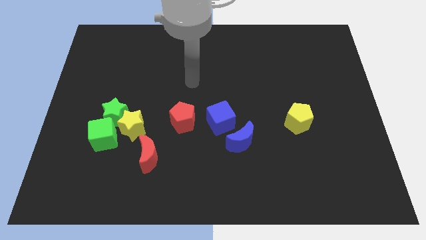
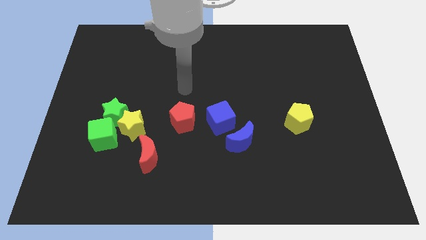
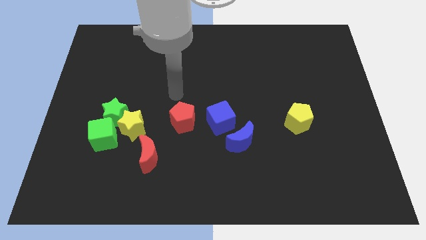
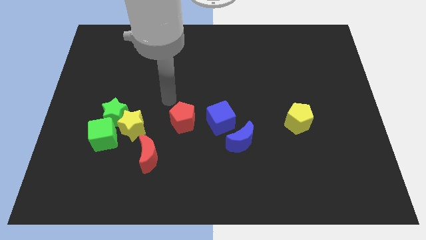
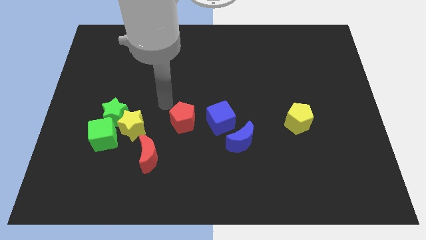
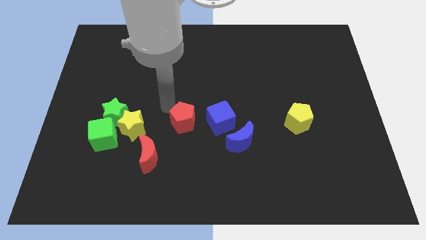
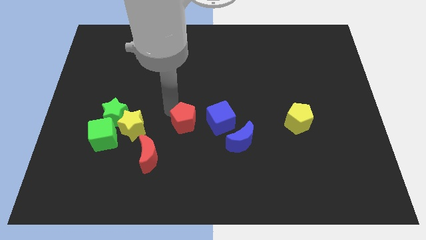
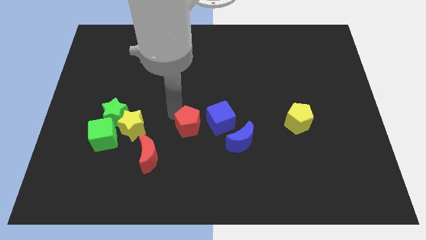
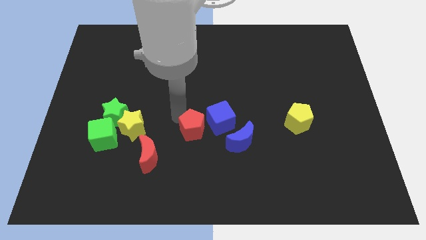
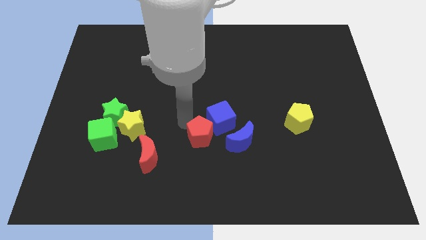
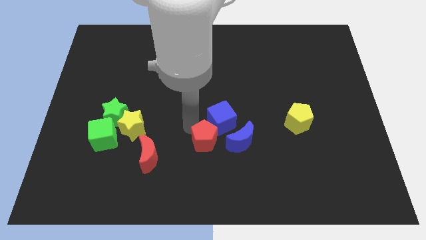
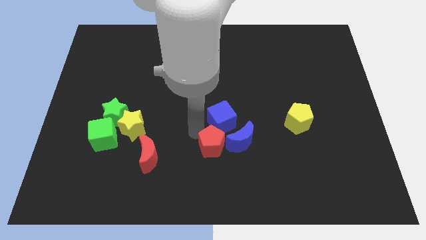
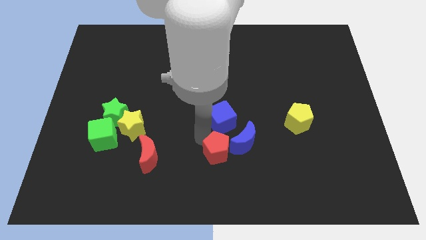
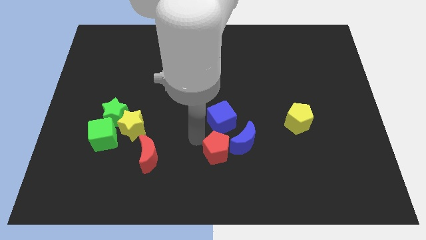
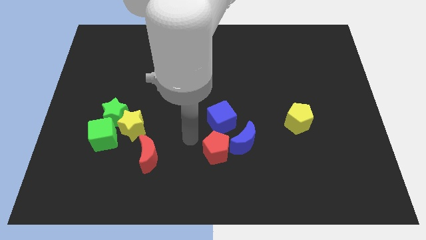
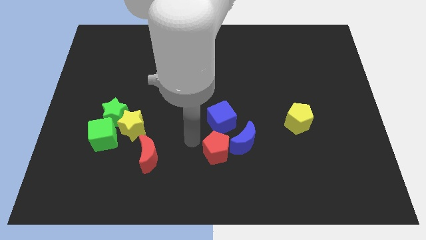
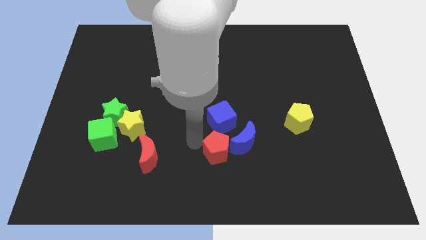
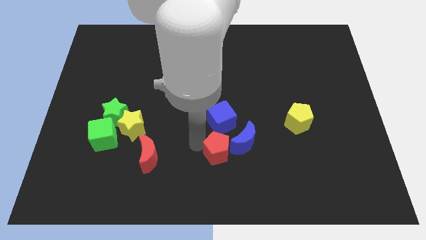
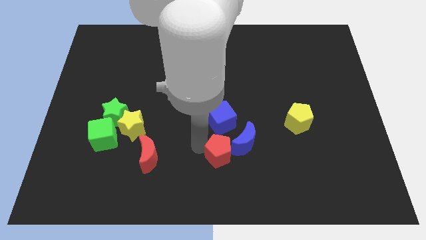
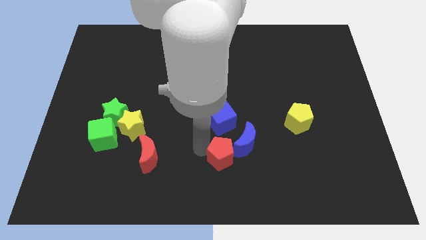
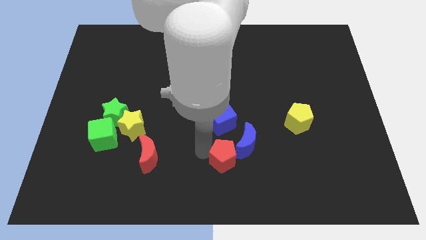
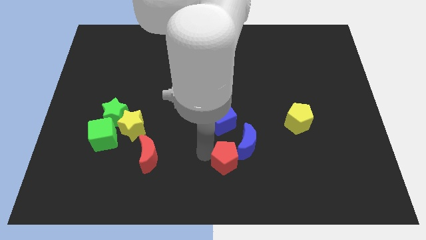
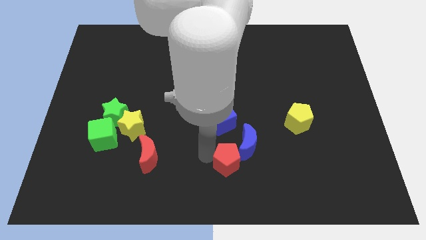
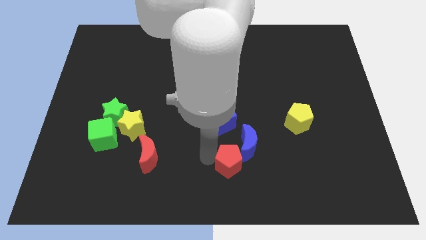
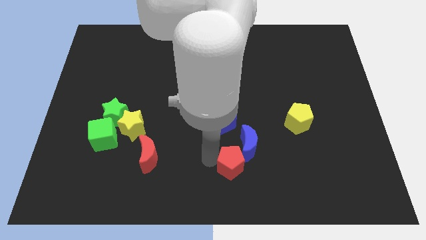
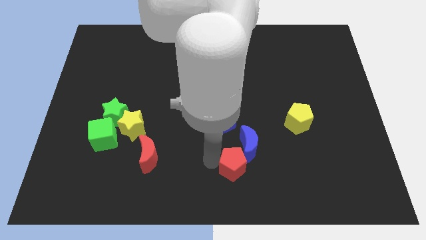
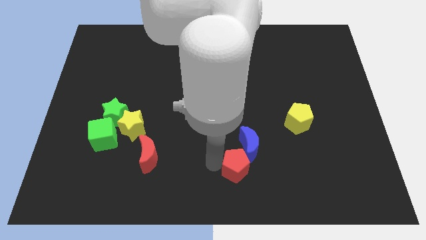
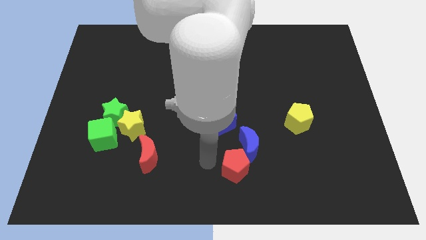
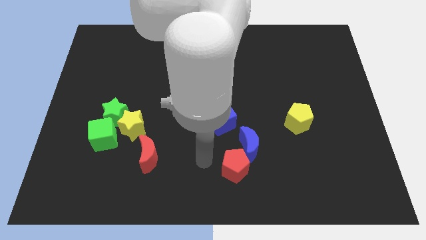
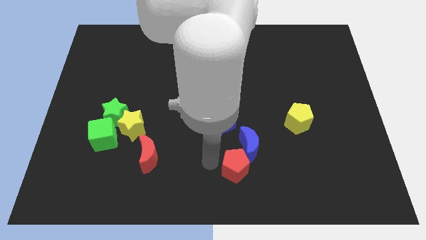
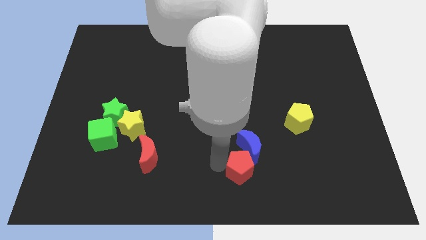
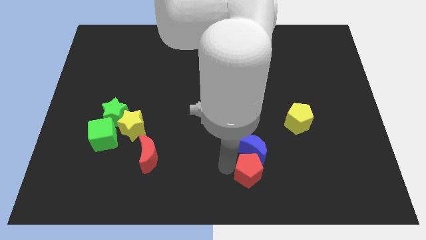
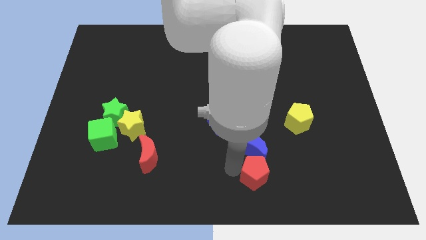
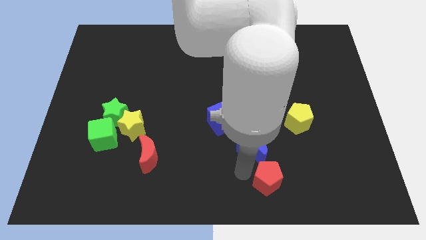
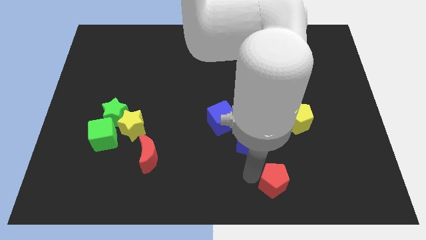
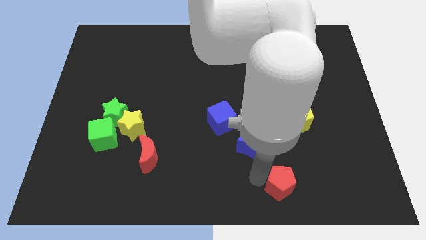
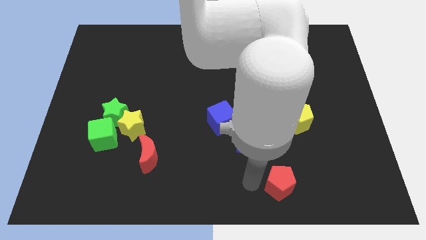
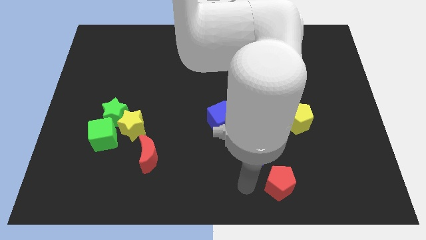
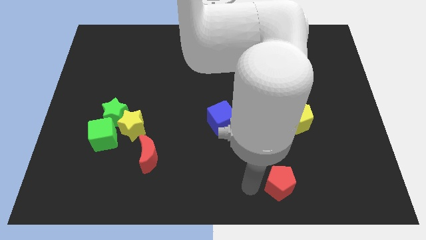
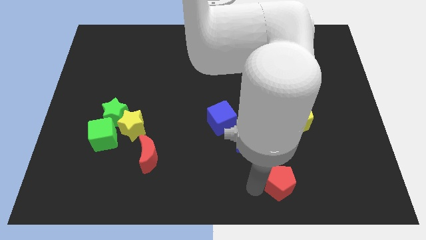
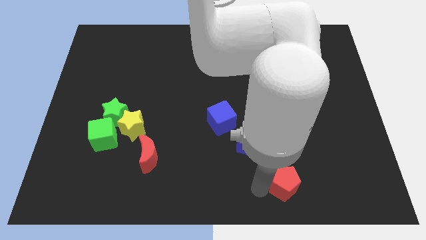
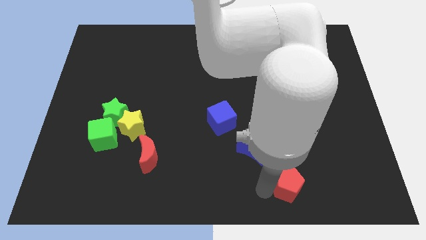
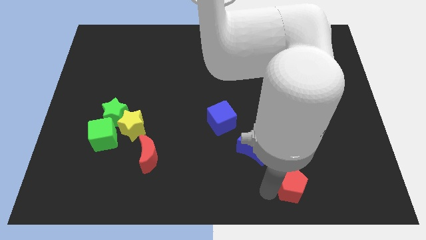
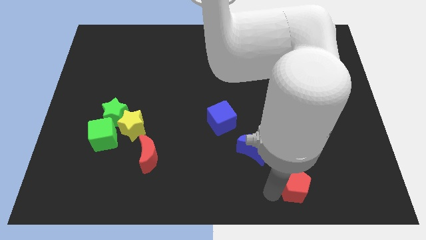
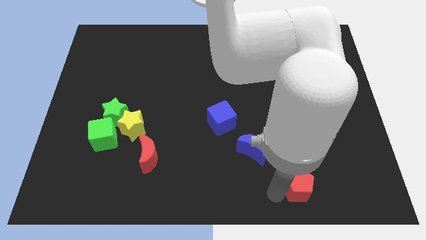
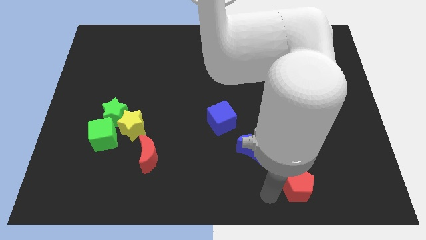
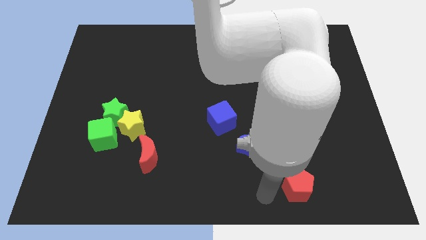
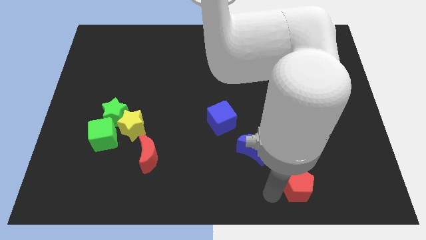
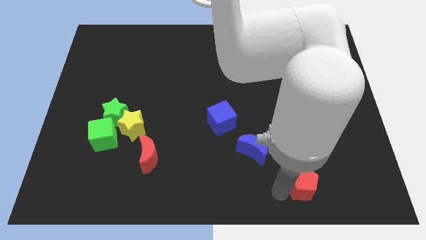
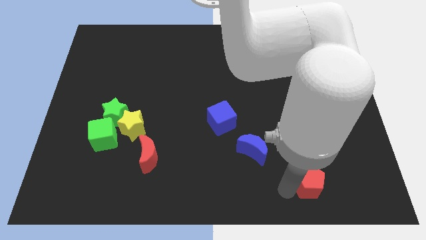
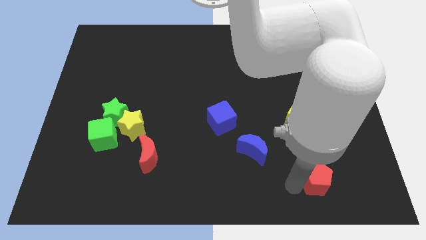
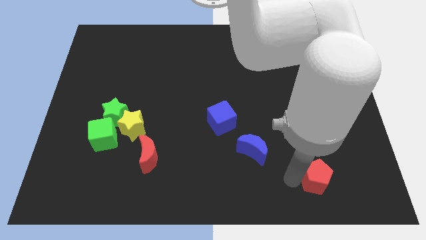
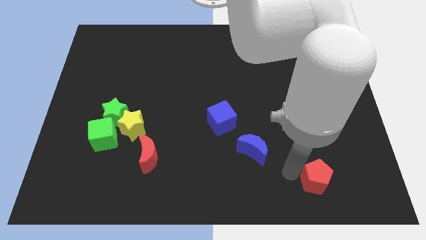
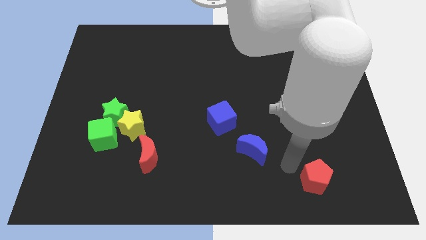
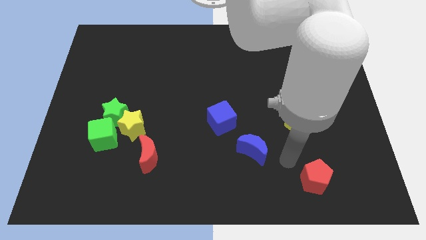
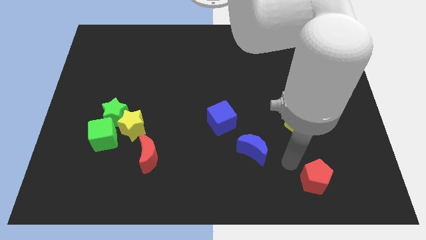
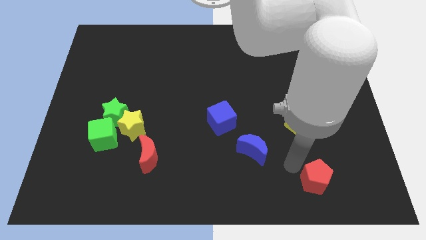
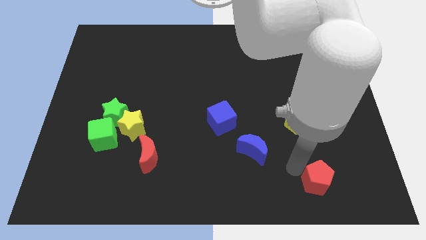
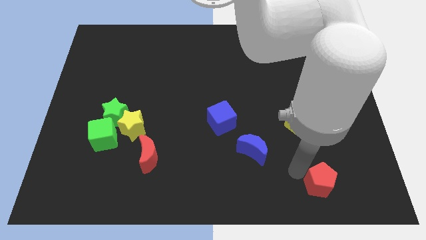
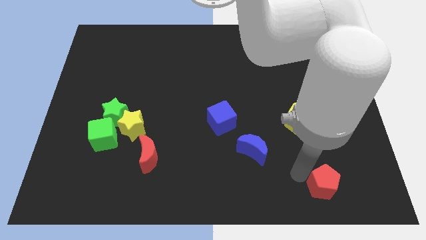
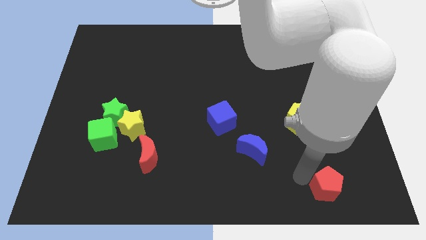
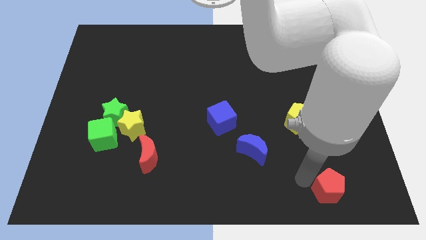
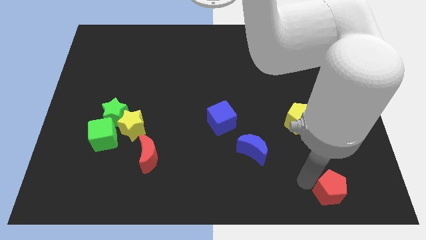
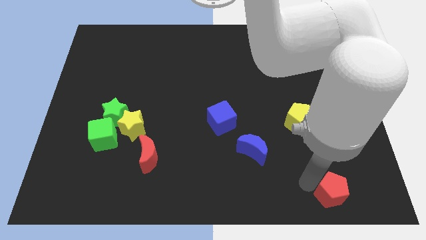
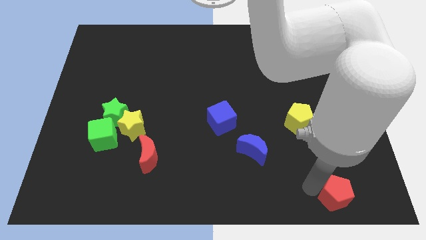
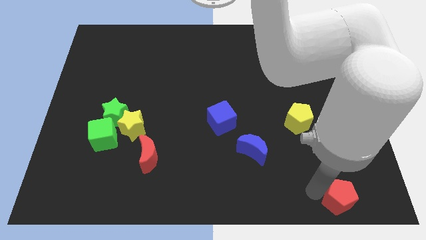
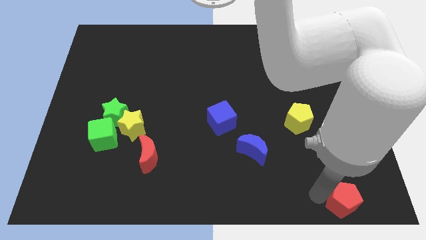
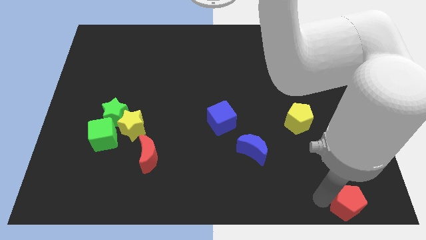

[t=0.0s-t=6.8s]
put the red pentagon to the bottom right

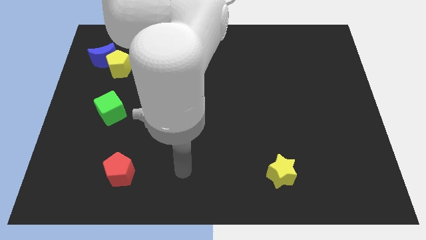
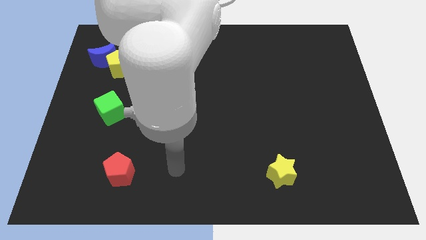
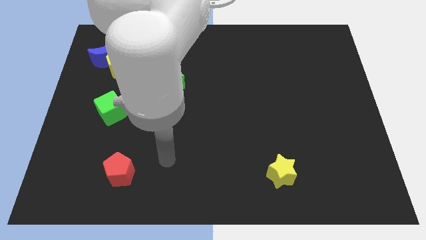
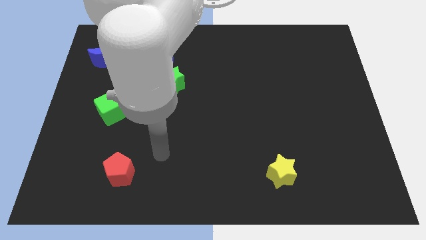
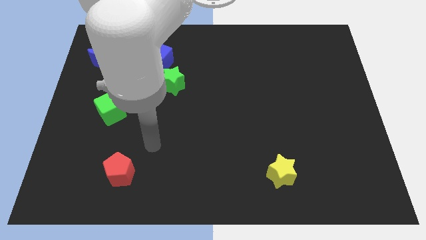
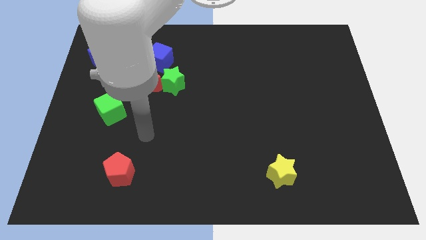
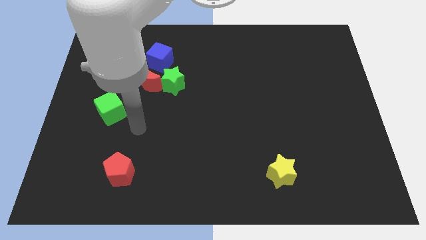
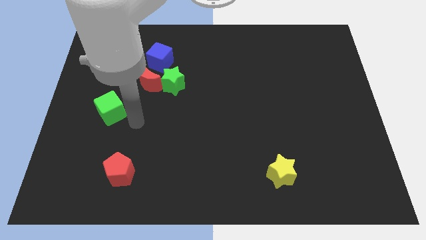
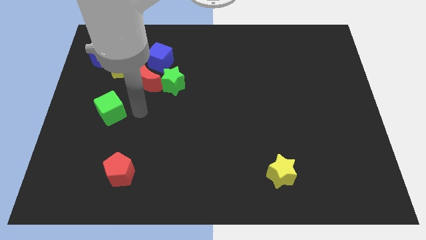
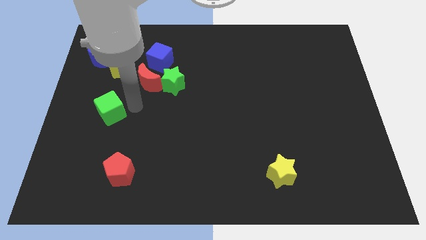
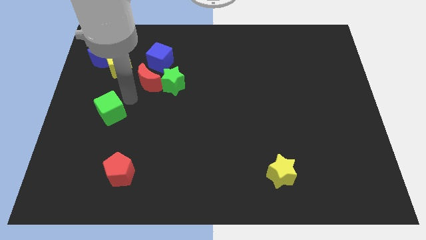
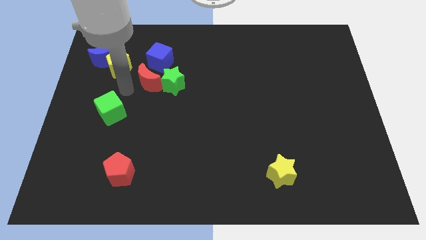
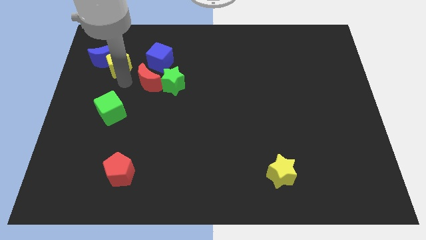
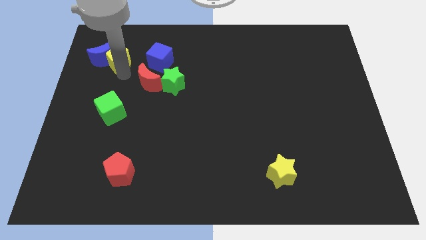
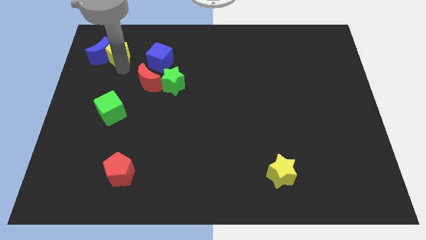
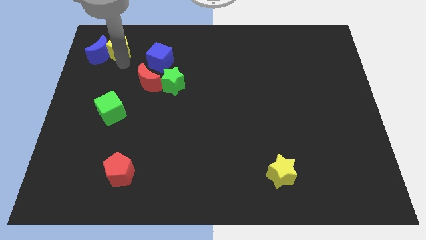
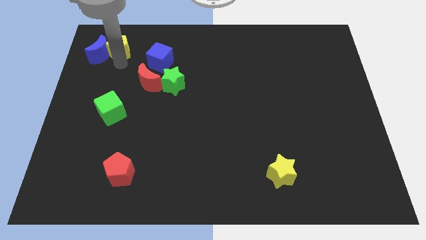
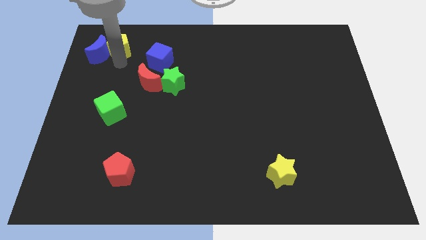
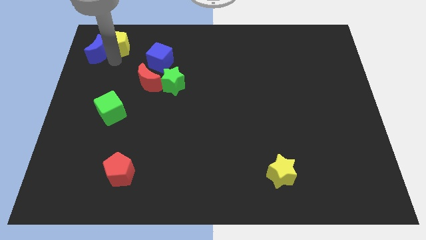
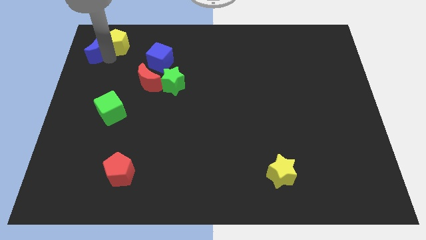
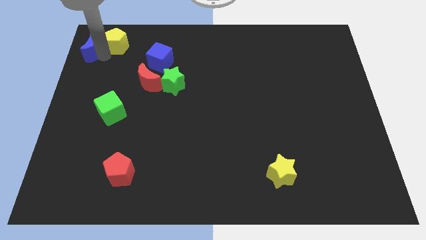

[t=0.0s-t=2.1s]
slide the blue moon to the top left
